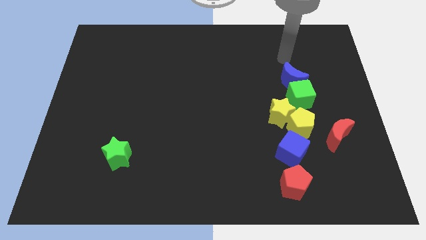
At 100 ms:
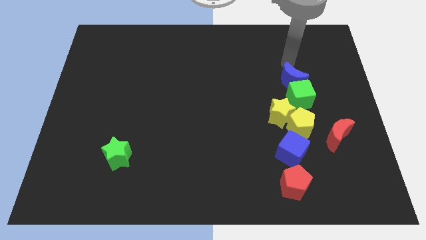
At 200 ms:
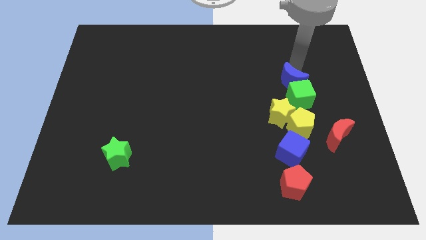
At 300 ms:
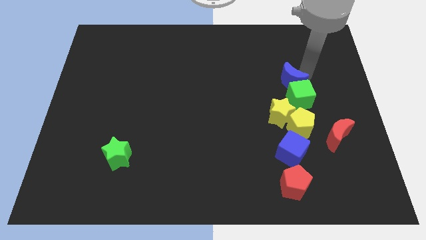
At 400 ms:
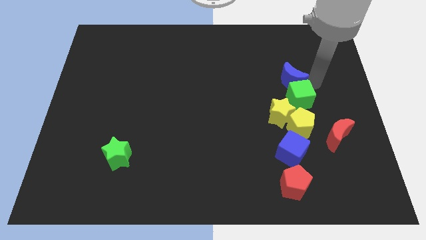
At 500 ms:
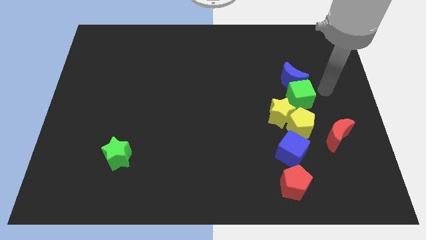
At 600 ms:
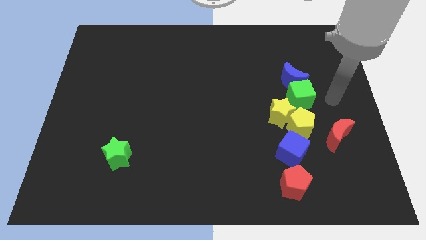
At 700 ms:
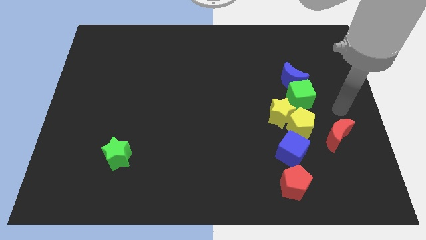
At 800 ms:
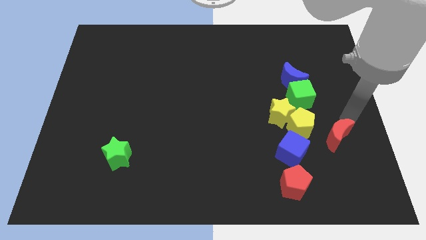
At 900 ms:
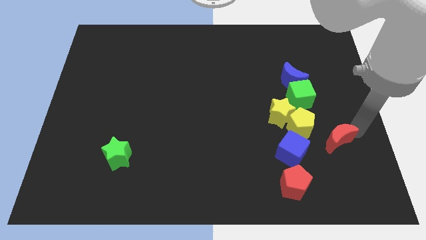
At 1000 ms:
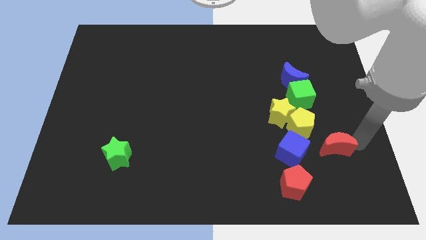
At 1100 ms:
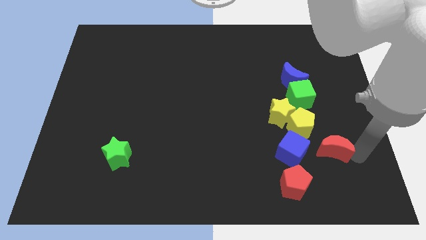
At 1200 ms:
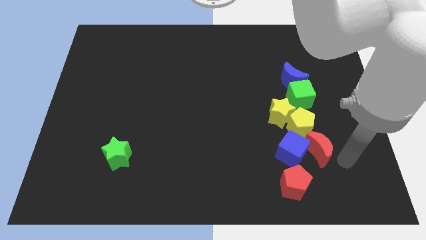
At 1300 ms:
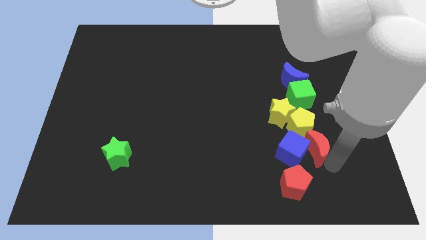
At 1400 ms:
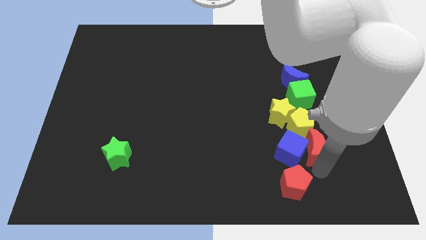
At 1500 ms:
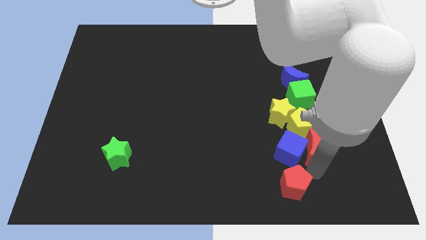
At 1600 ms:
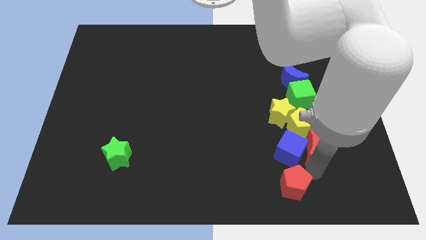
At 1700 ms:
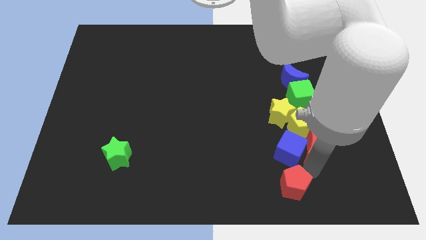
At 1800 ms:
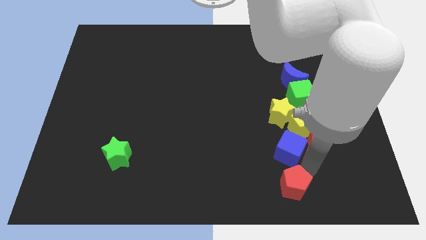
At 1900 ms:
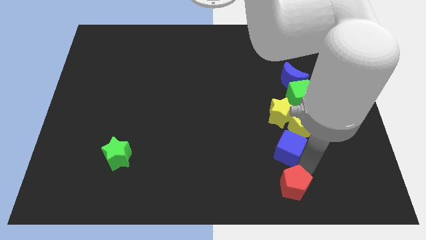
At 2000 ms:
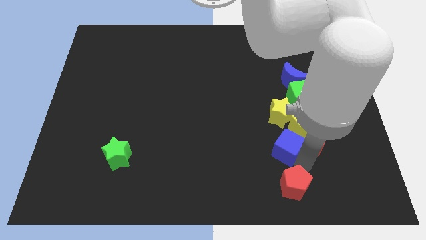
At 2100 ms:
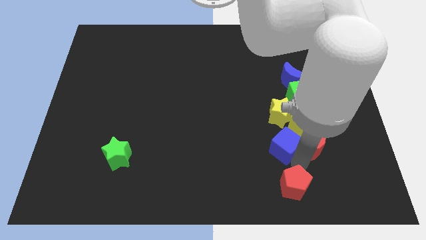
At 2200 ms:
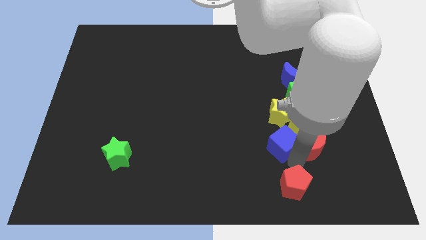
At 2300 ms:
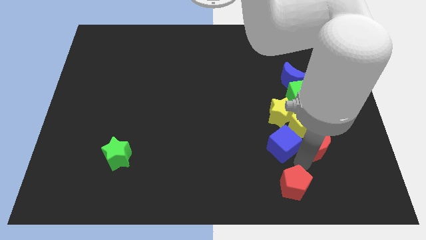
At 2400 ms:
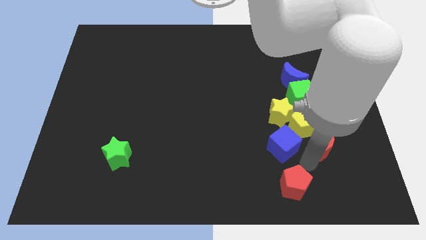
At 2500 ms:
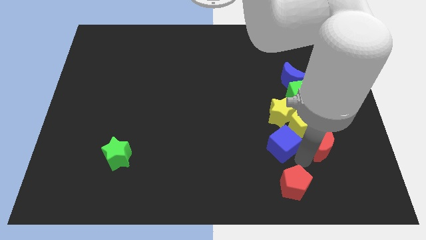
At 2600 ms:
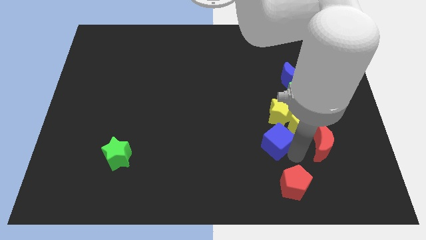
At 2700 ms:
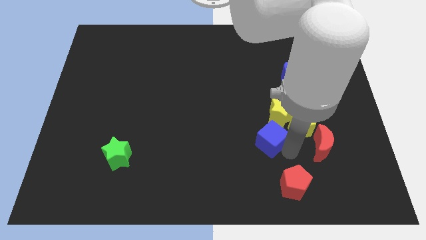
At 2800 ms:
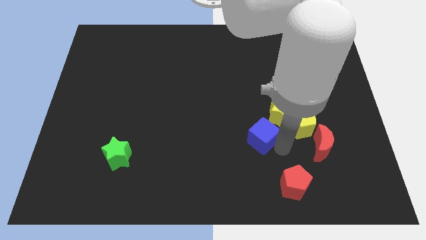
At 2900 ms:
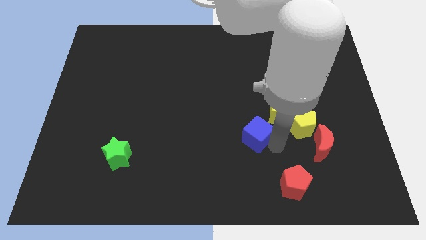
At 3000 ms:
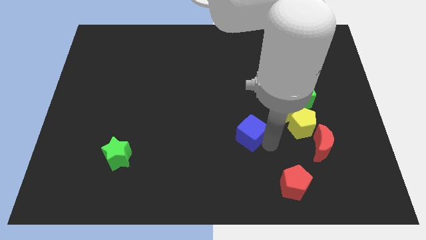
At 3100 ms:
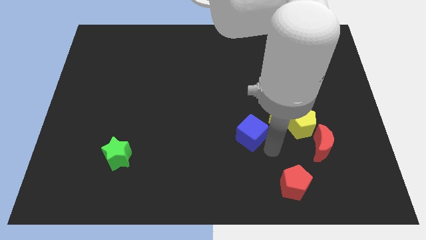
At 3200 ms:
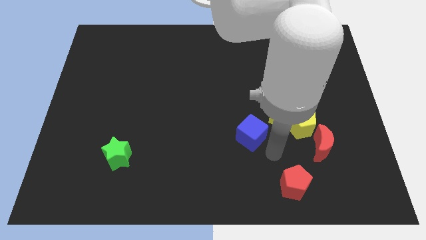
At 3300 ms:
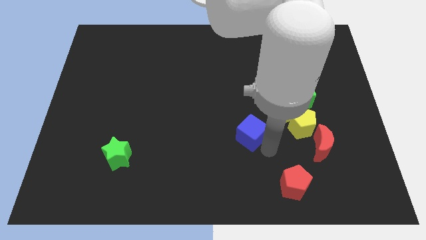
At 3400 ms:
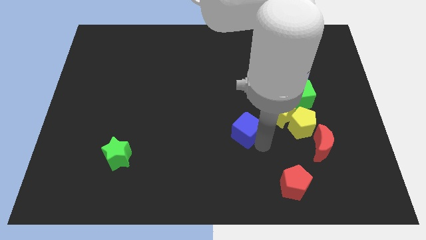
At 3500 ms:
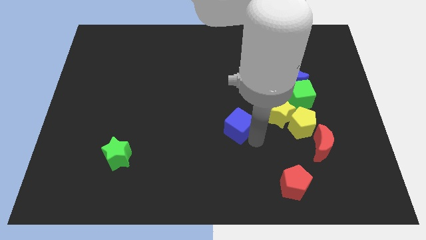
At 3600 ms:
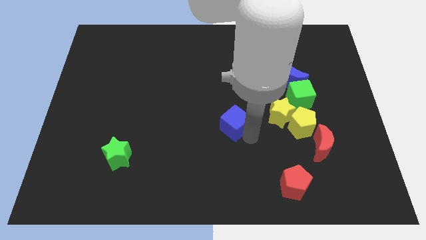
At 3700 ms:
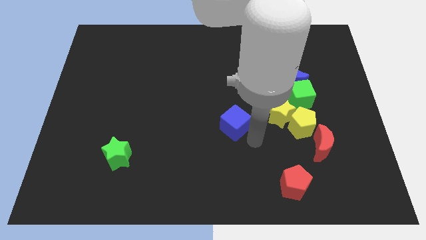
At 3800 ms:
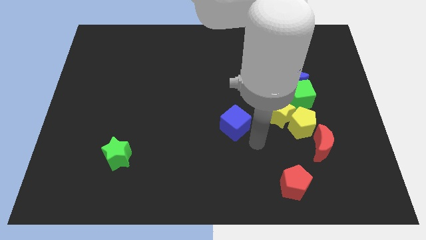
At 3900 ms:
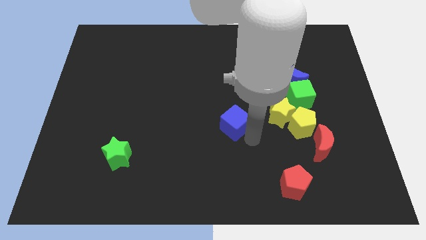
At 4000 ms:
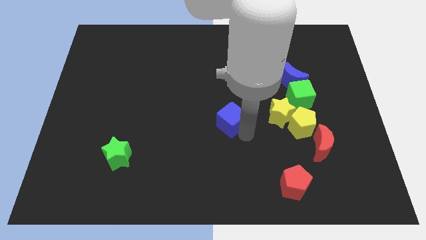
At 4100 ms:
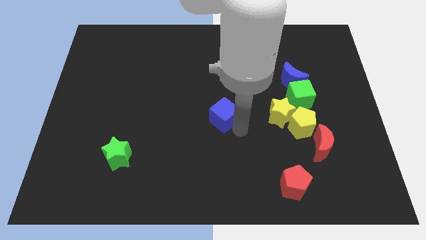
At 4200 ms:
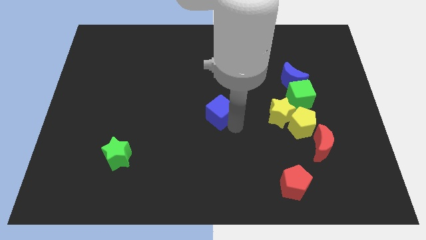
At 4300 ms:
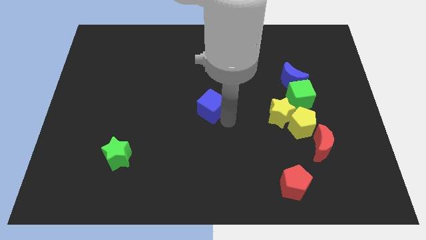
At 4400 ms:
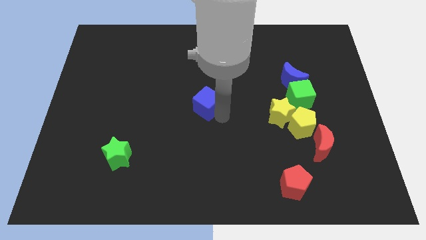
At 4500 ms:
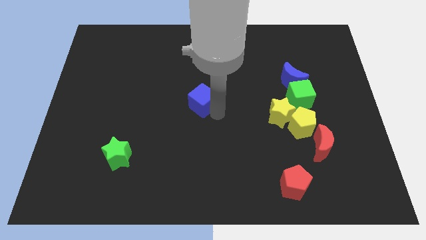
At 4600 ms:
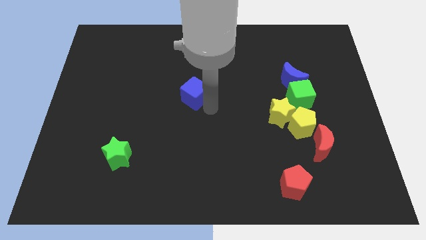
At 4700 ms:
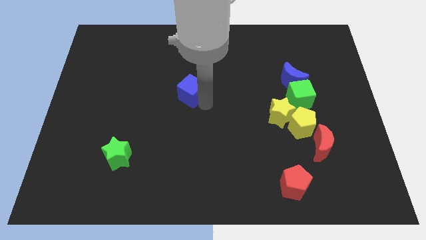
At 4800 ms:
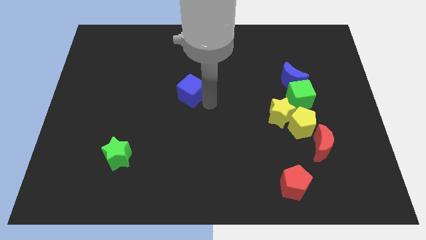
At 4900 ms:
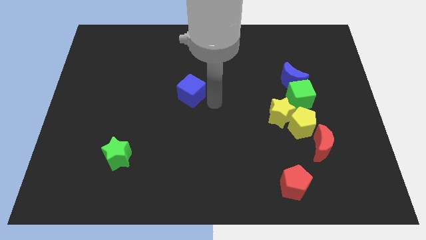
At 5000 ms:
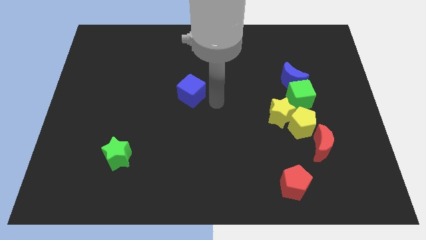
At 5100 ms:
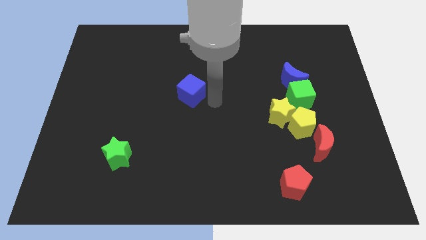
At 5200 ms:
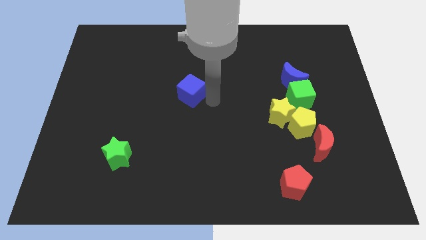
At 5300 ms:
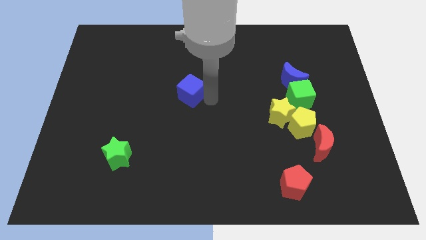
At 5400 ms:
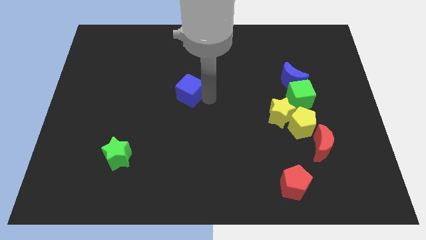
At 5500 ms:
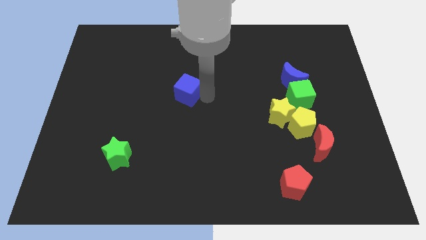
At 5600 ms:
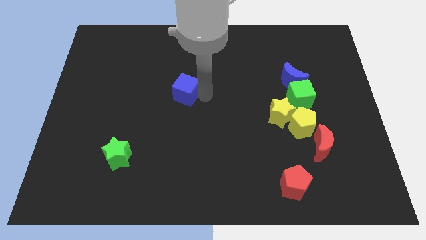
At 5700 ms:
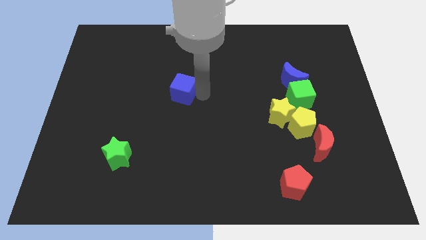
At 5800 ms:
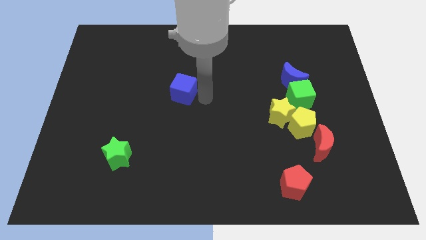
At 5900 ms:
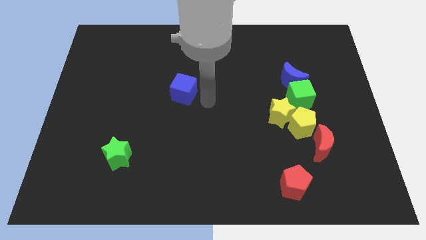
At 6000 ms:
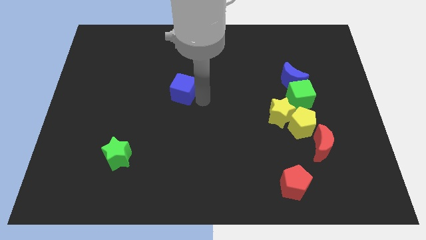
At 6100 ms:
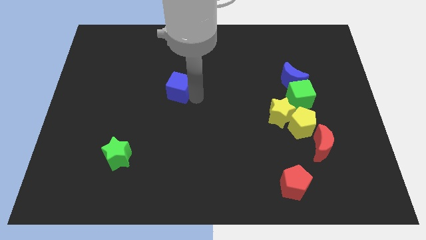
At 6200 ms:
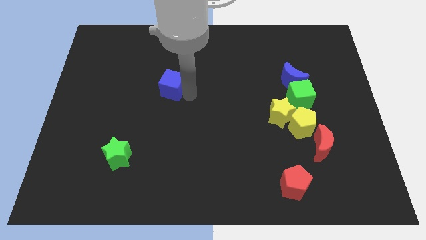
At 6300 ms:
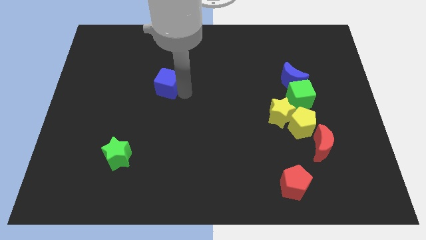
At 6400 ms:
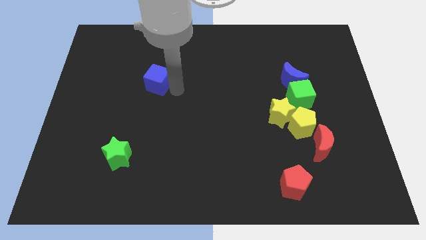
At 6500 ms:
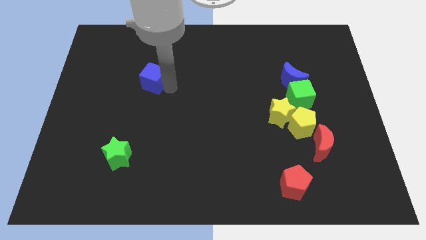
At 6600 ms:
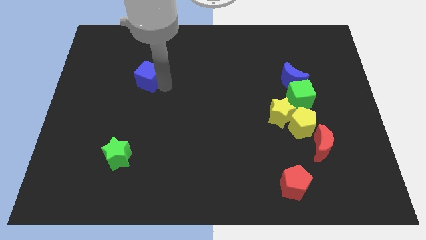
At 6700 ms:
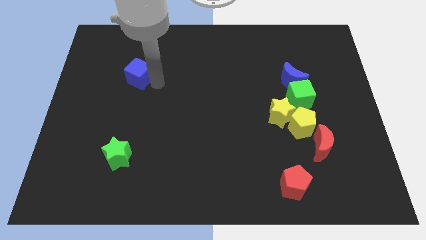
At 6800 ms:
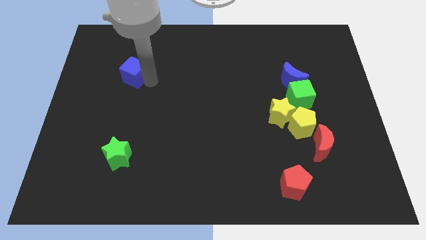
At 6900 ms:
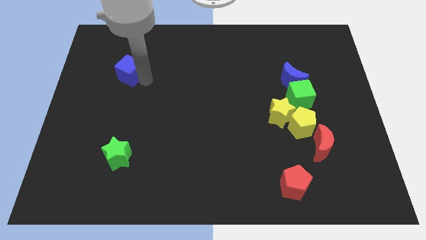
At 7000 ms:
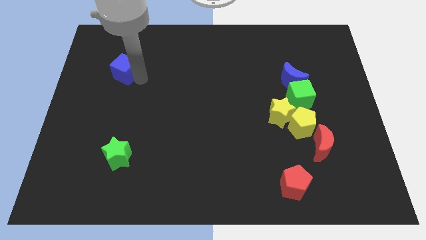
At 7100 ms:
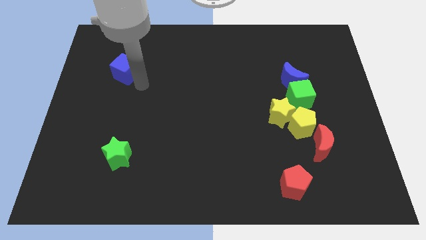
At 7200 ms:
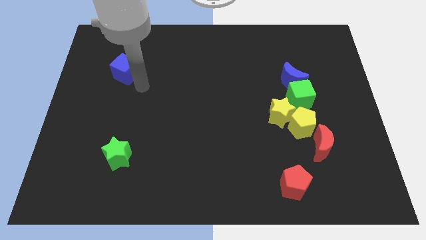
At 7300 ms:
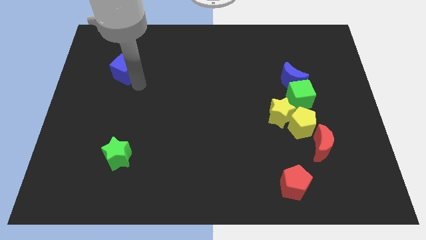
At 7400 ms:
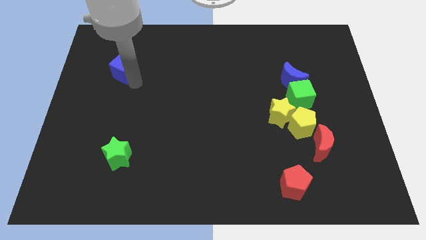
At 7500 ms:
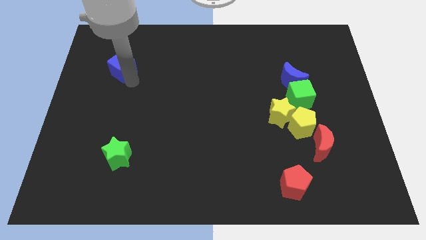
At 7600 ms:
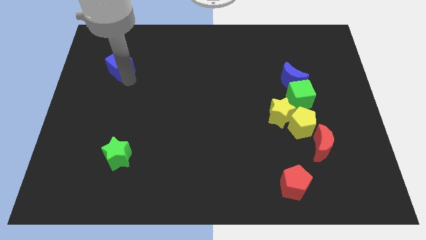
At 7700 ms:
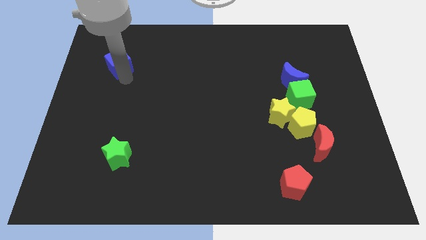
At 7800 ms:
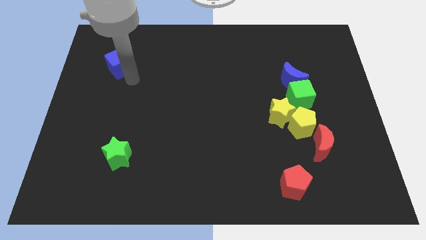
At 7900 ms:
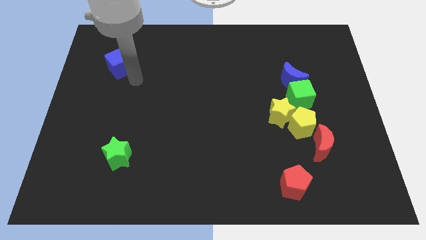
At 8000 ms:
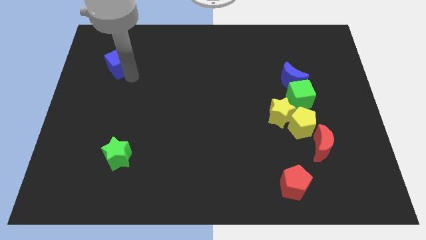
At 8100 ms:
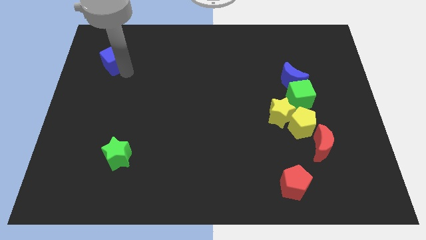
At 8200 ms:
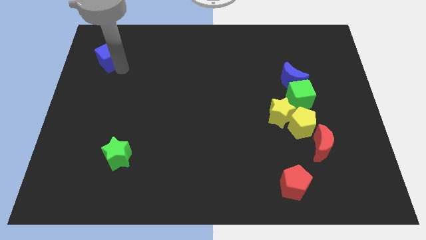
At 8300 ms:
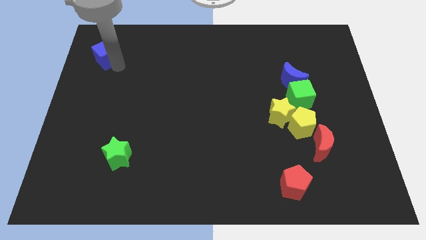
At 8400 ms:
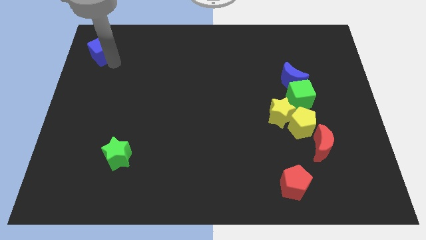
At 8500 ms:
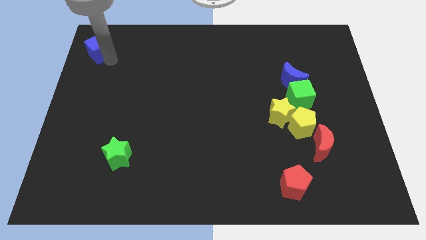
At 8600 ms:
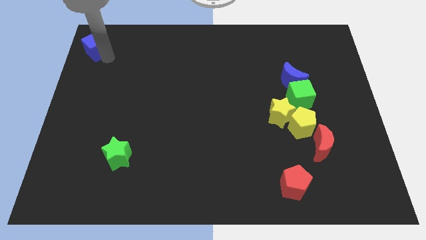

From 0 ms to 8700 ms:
slide the blue cube to the top left of the board
